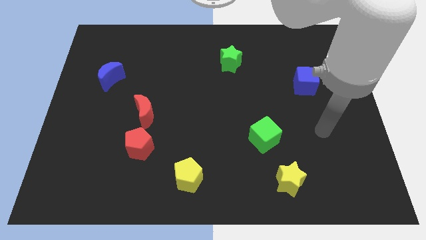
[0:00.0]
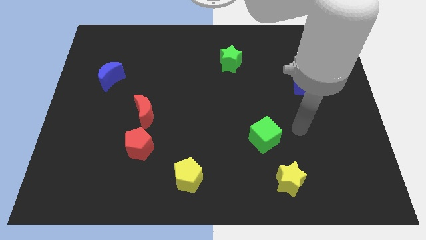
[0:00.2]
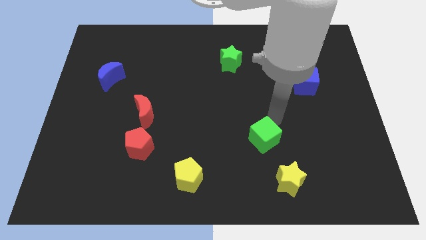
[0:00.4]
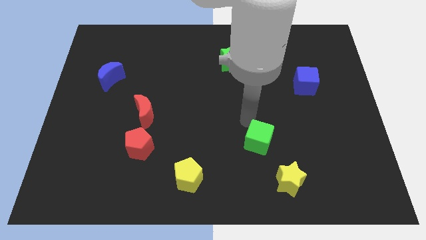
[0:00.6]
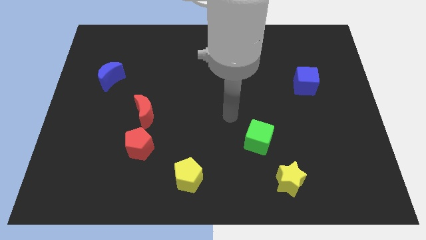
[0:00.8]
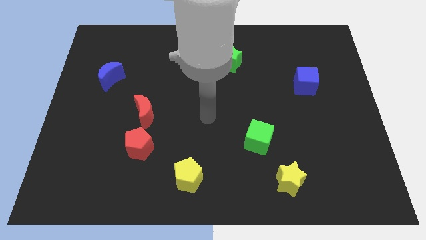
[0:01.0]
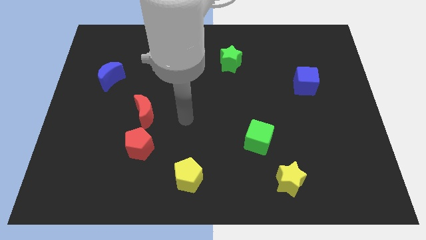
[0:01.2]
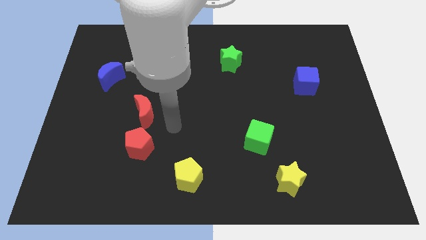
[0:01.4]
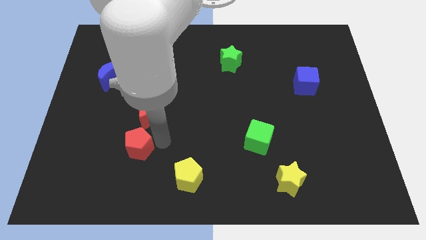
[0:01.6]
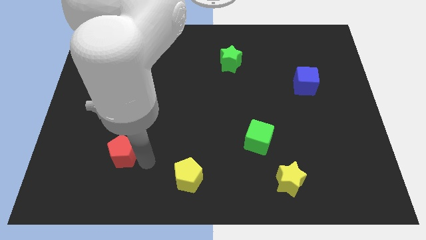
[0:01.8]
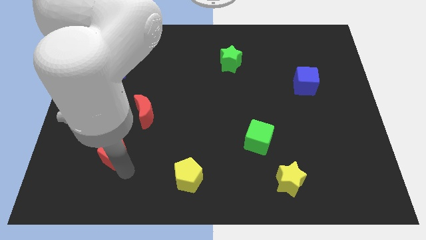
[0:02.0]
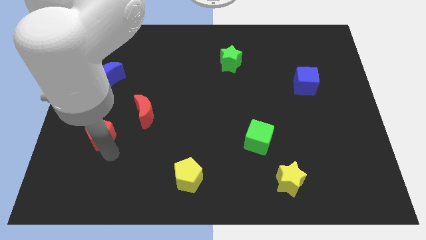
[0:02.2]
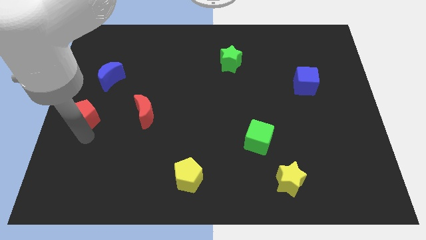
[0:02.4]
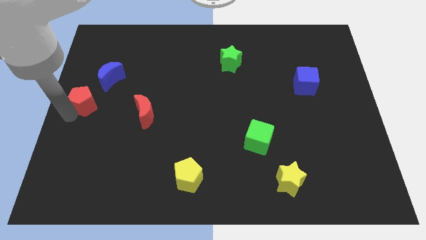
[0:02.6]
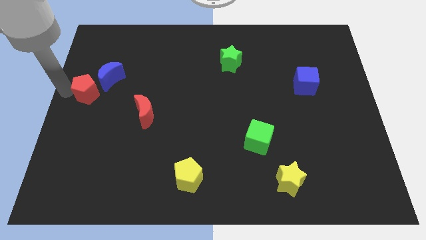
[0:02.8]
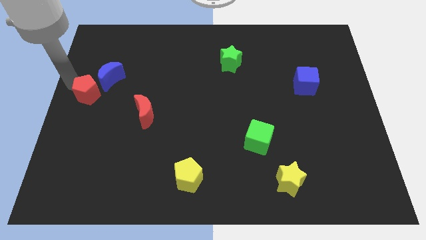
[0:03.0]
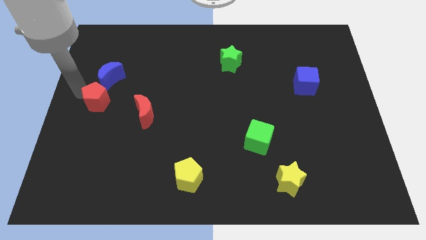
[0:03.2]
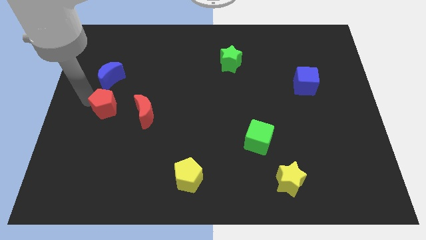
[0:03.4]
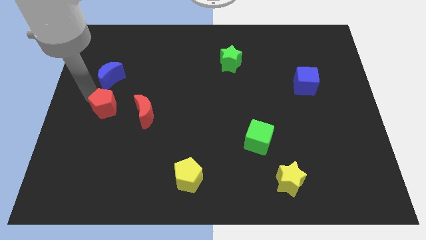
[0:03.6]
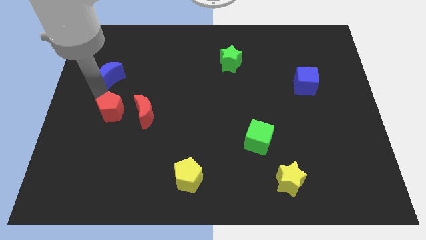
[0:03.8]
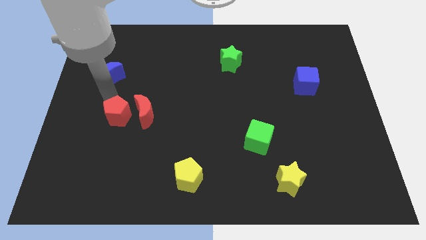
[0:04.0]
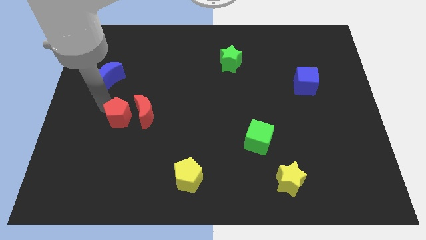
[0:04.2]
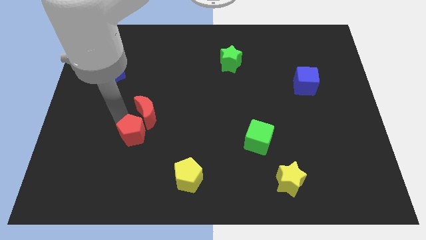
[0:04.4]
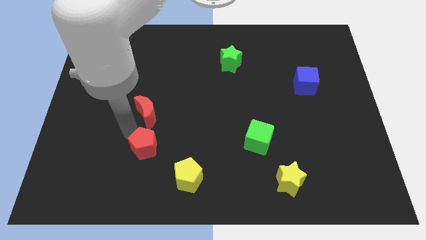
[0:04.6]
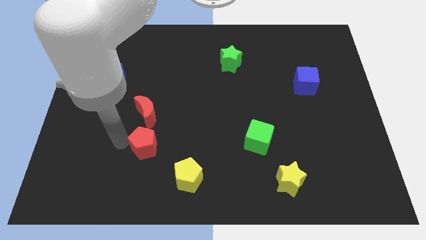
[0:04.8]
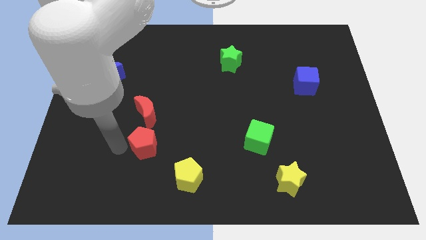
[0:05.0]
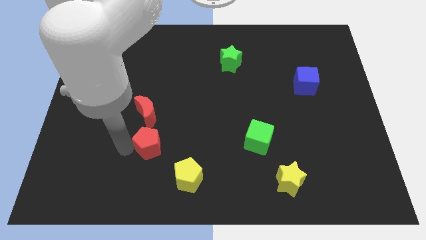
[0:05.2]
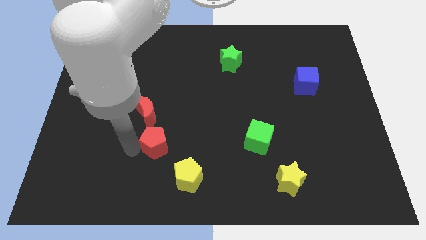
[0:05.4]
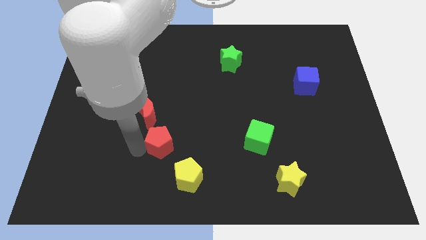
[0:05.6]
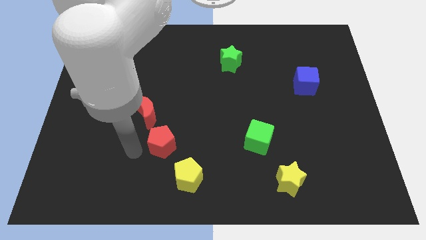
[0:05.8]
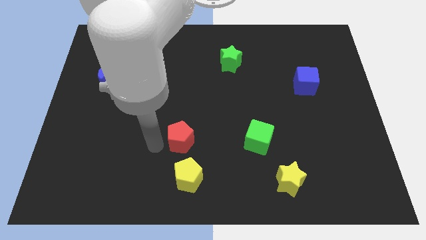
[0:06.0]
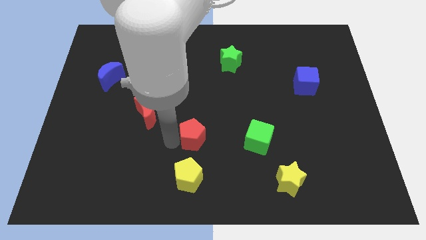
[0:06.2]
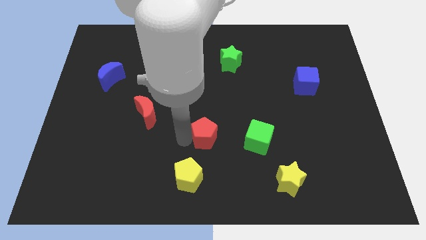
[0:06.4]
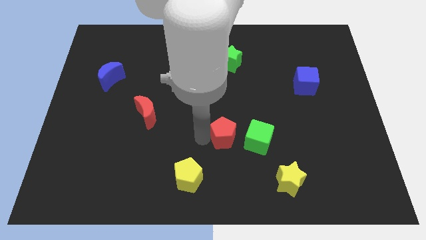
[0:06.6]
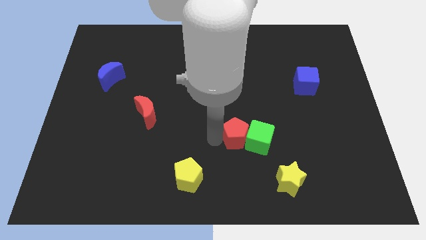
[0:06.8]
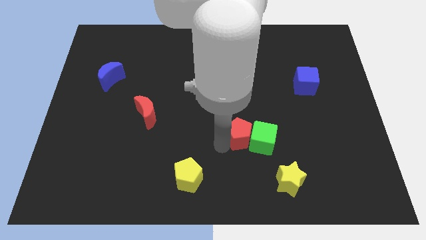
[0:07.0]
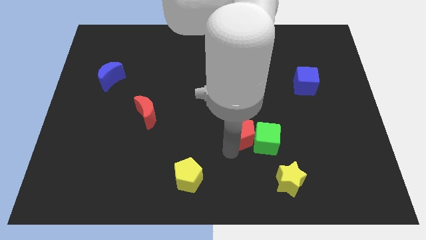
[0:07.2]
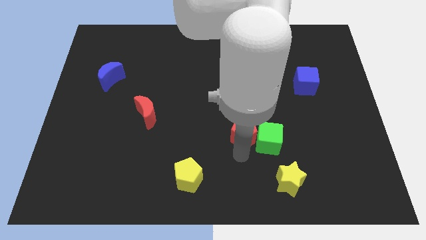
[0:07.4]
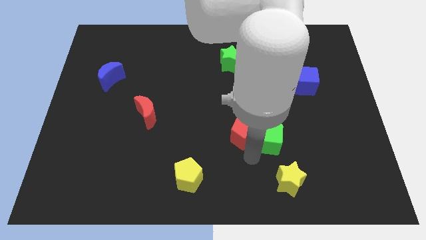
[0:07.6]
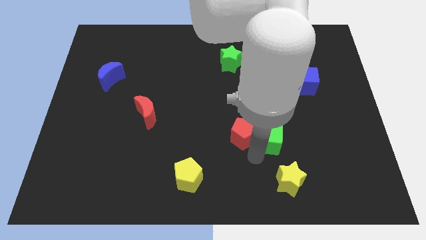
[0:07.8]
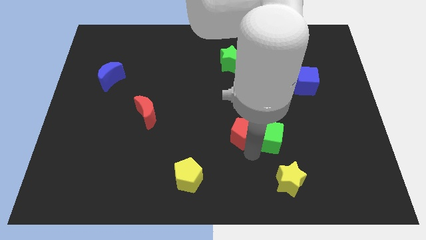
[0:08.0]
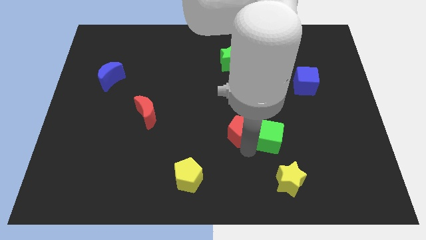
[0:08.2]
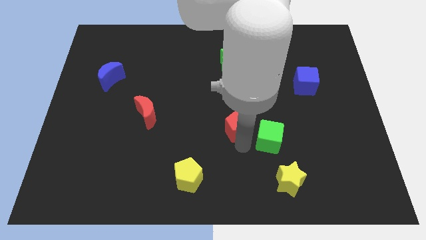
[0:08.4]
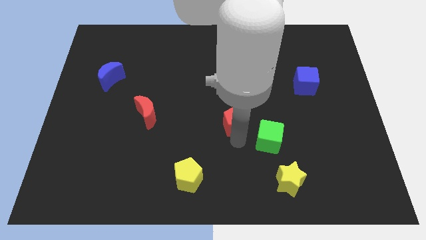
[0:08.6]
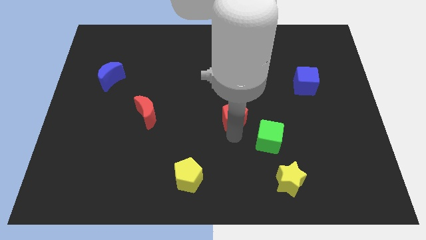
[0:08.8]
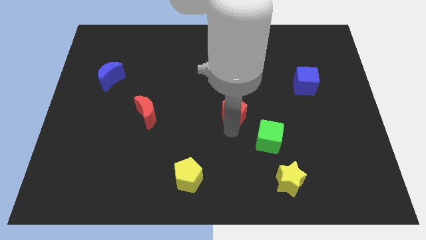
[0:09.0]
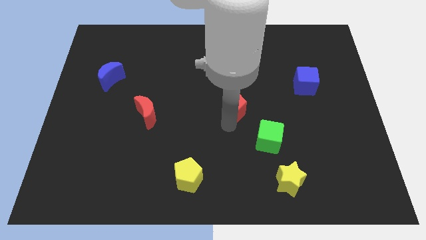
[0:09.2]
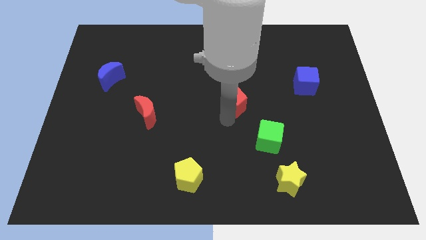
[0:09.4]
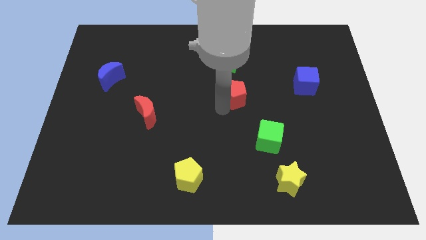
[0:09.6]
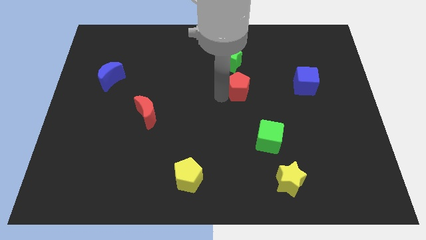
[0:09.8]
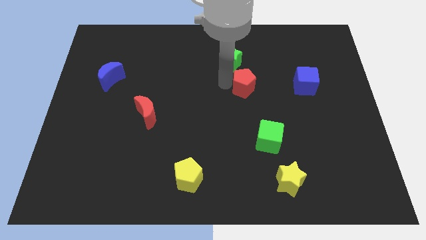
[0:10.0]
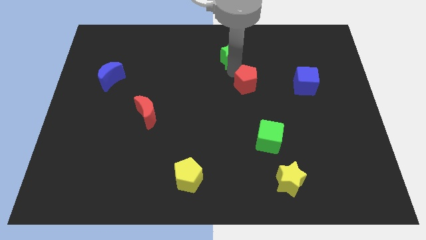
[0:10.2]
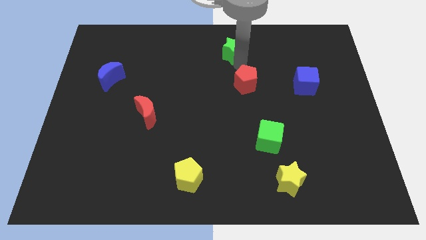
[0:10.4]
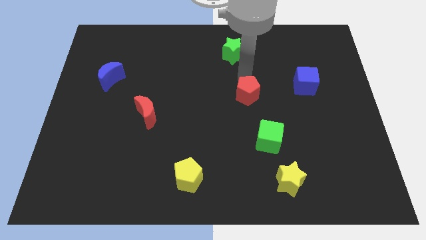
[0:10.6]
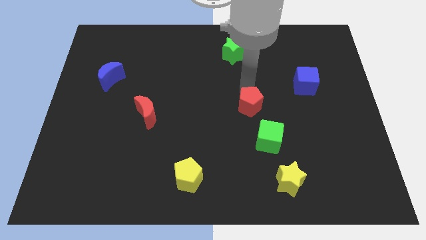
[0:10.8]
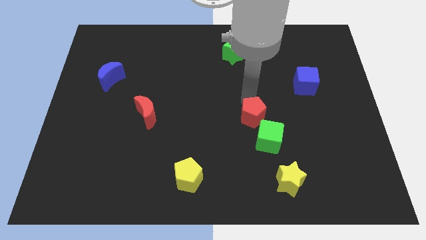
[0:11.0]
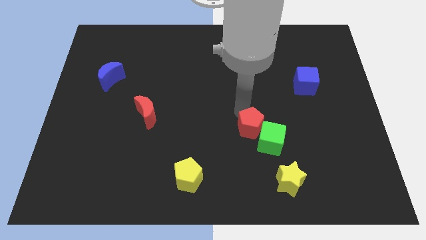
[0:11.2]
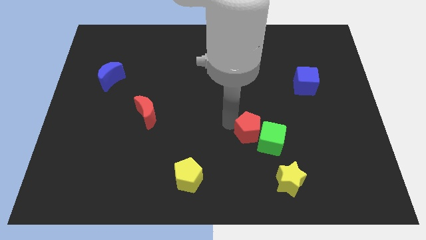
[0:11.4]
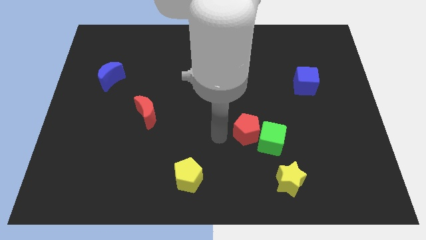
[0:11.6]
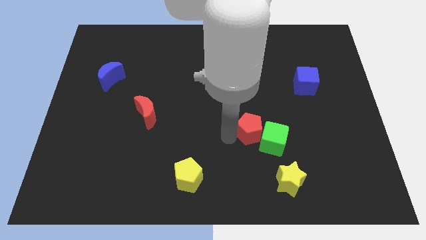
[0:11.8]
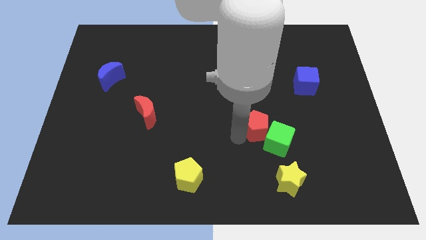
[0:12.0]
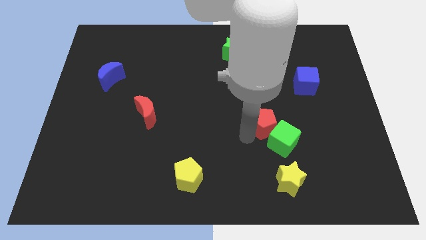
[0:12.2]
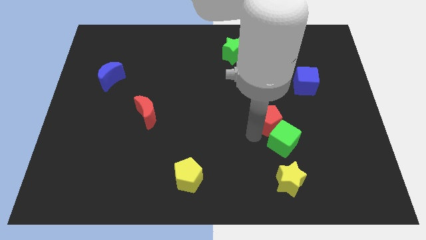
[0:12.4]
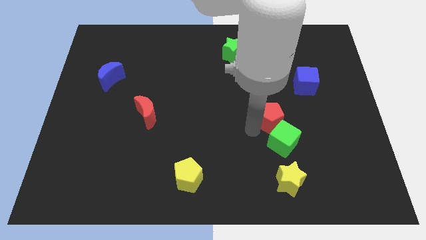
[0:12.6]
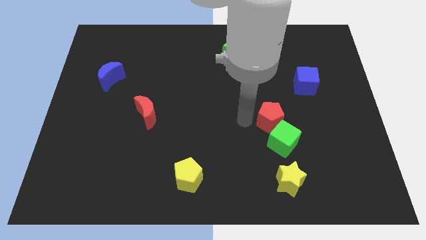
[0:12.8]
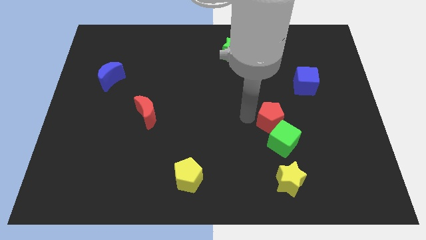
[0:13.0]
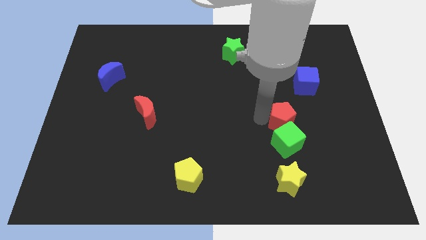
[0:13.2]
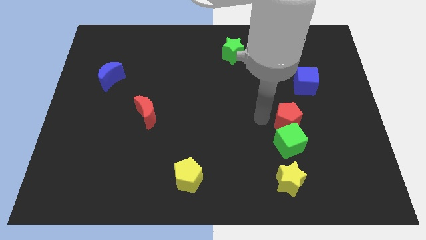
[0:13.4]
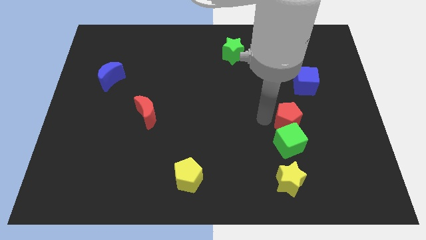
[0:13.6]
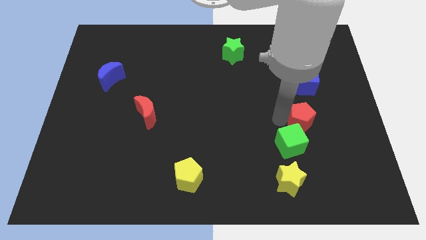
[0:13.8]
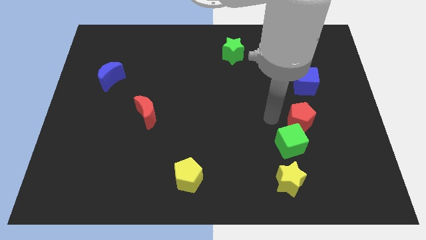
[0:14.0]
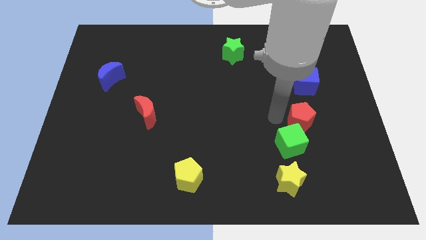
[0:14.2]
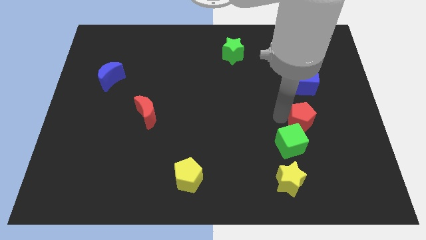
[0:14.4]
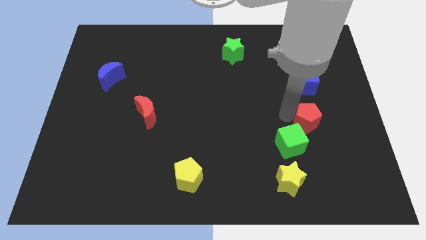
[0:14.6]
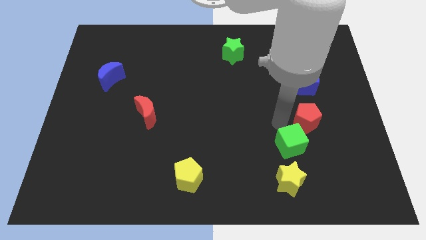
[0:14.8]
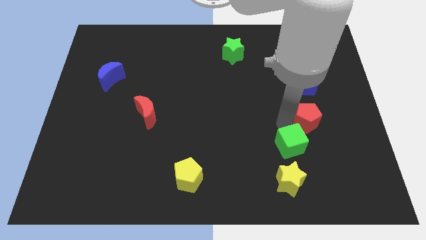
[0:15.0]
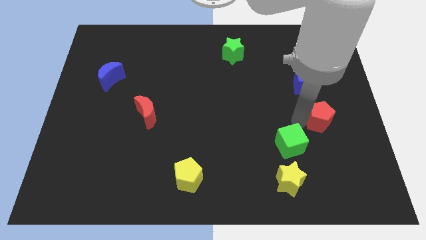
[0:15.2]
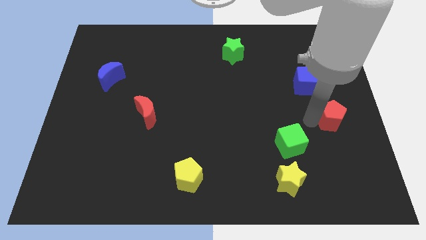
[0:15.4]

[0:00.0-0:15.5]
move the red pentagon to the right side of the board
